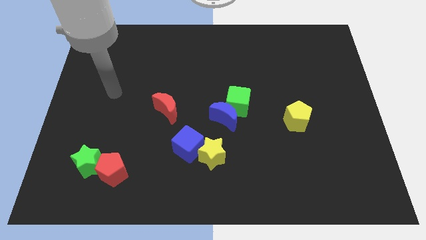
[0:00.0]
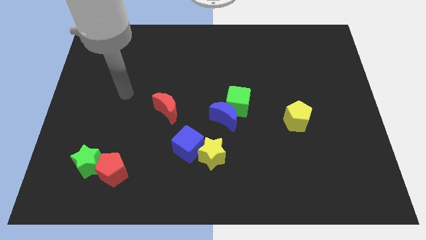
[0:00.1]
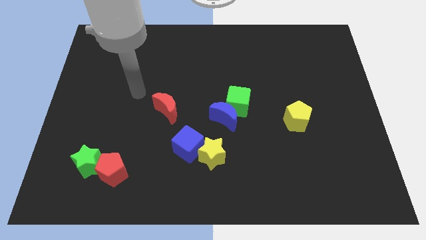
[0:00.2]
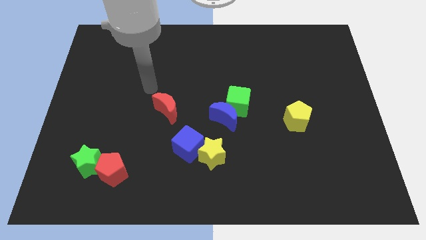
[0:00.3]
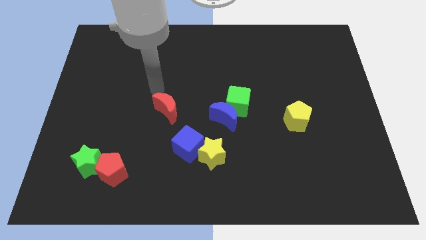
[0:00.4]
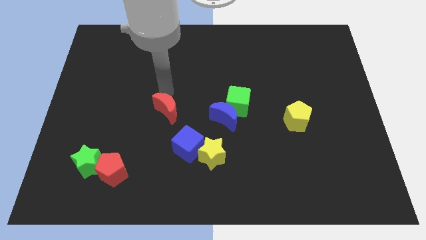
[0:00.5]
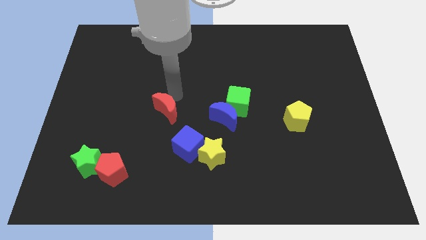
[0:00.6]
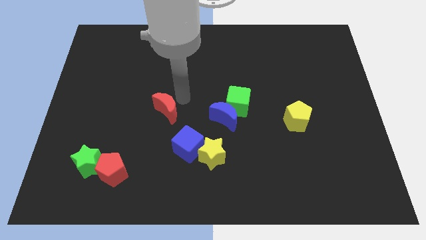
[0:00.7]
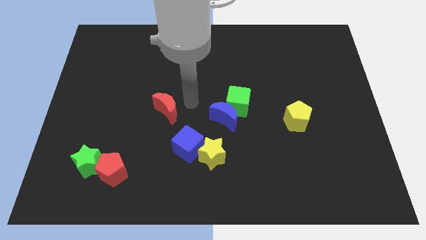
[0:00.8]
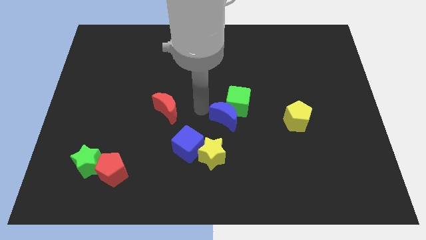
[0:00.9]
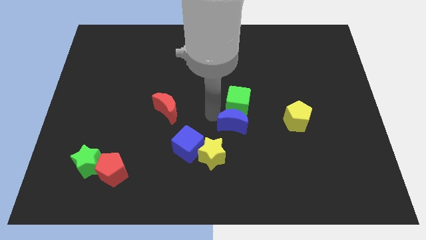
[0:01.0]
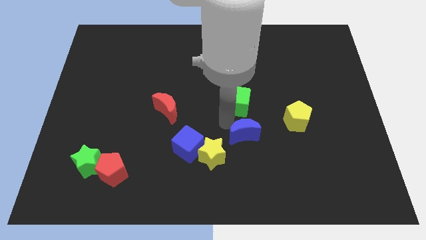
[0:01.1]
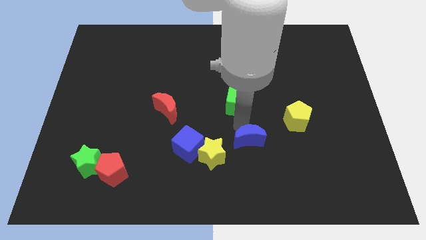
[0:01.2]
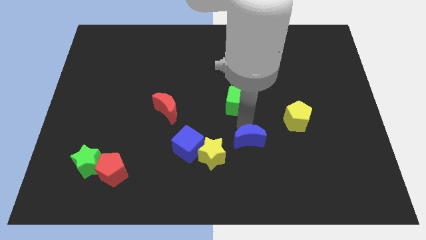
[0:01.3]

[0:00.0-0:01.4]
separate the green cube from the blue moon

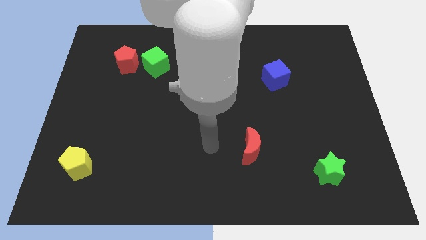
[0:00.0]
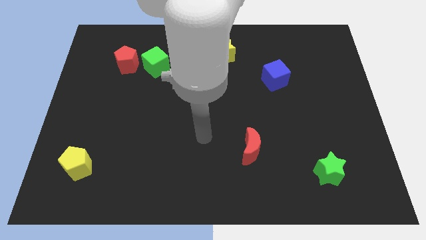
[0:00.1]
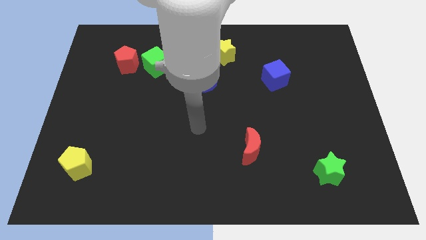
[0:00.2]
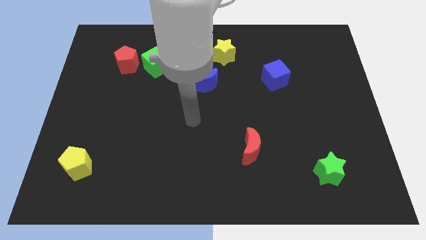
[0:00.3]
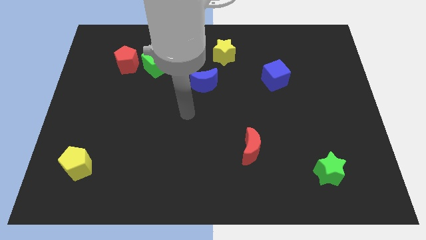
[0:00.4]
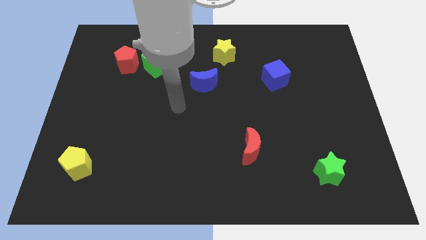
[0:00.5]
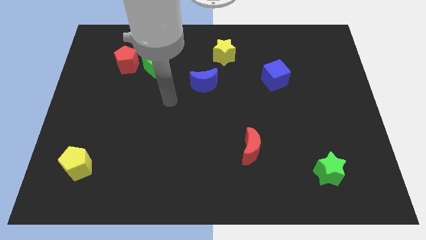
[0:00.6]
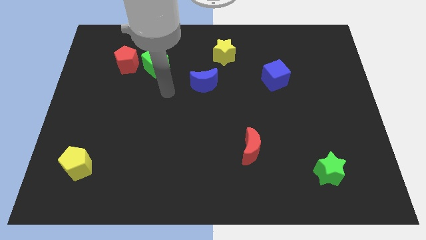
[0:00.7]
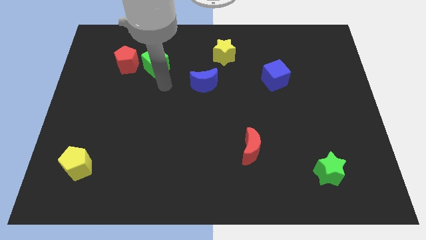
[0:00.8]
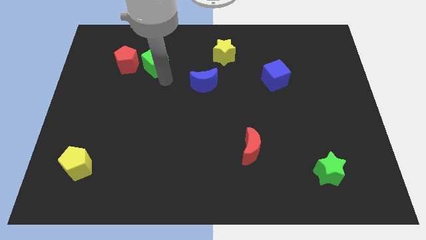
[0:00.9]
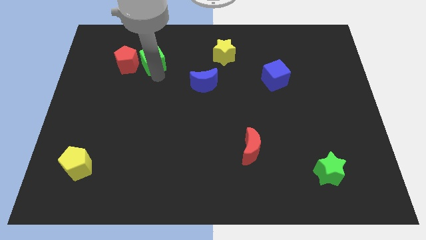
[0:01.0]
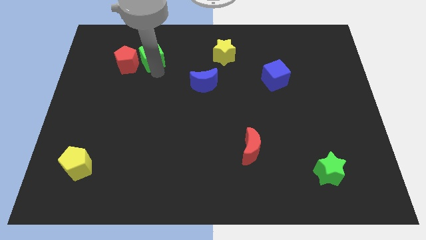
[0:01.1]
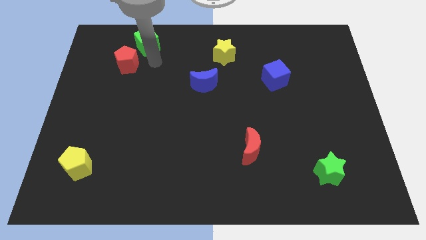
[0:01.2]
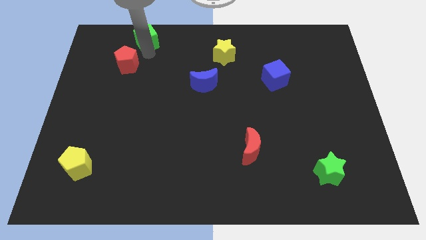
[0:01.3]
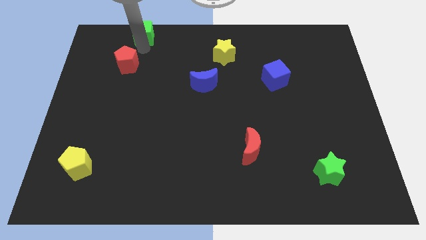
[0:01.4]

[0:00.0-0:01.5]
move the red pentagon away from the green cube

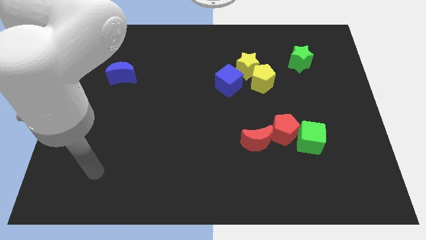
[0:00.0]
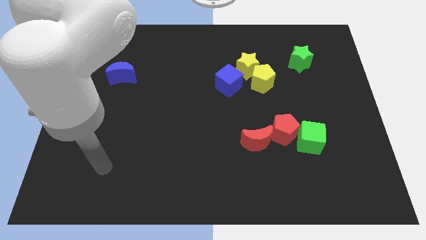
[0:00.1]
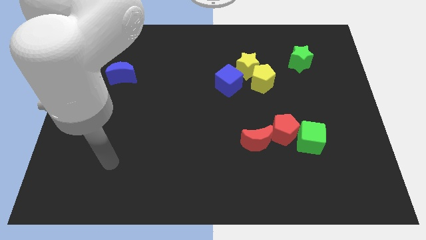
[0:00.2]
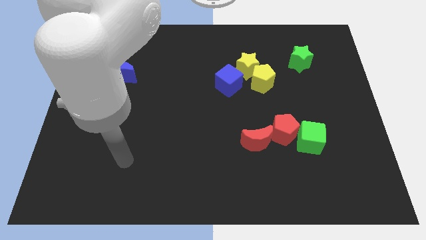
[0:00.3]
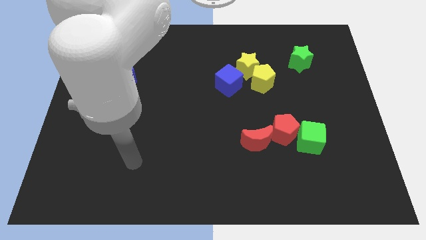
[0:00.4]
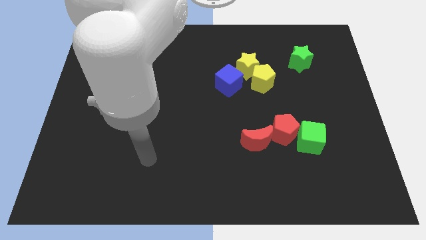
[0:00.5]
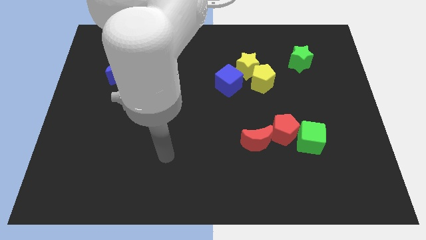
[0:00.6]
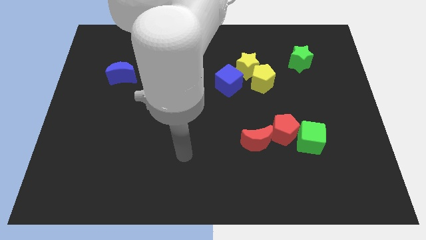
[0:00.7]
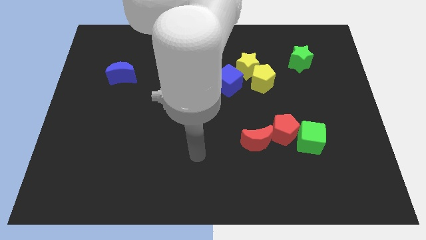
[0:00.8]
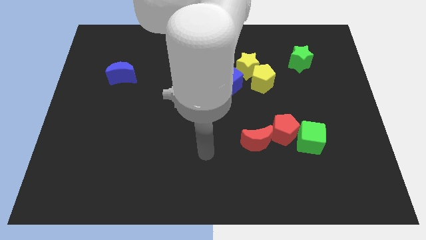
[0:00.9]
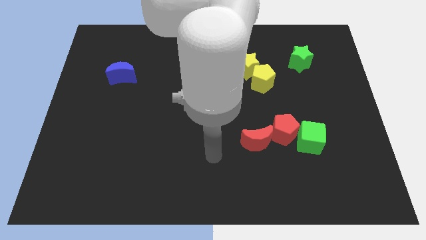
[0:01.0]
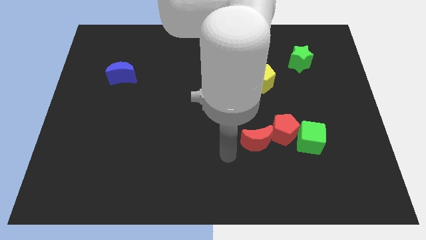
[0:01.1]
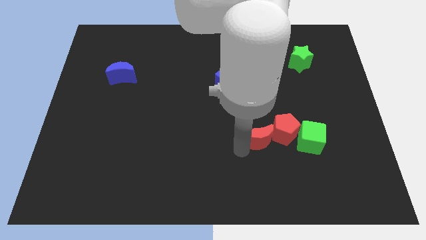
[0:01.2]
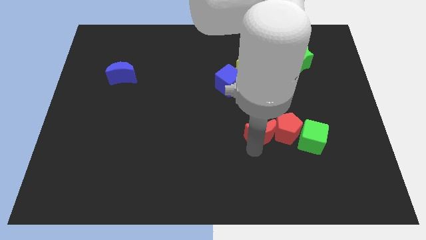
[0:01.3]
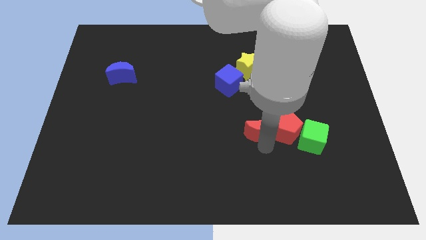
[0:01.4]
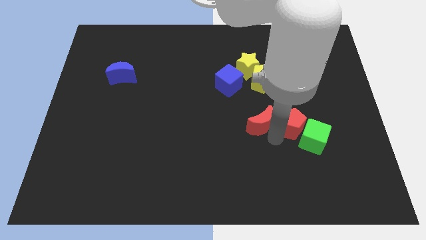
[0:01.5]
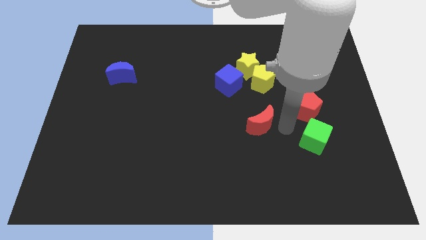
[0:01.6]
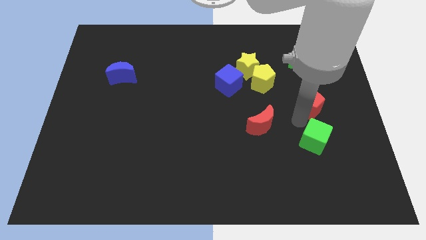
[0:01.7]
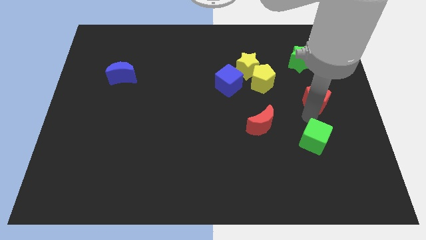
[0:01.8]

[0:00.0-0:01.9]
move the green cube away from the red pentagon

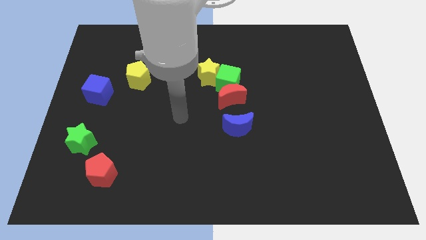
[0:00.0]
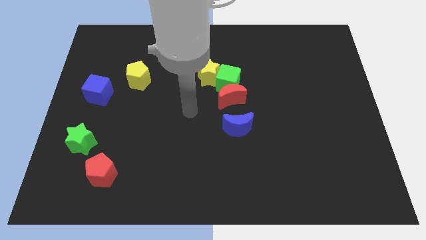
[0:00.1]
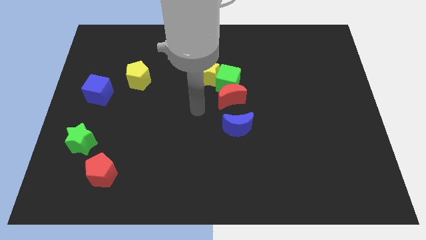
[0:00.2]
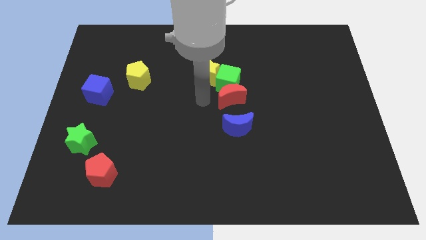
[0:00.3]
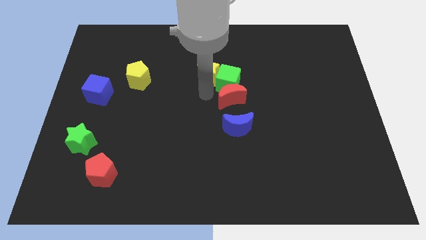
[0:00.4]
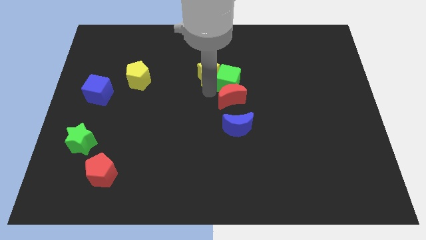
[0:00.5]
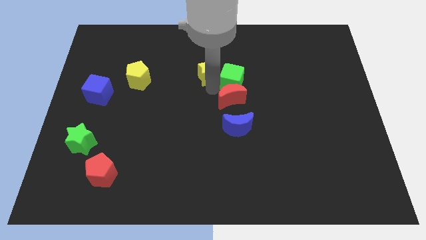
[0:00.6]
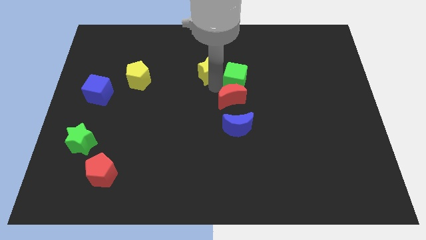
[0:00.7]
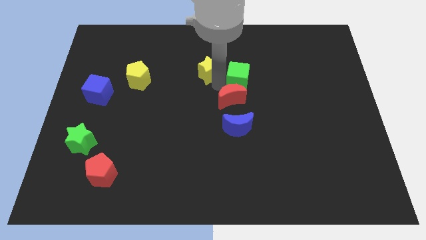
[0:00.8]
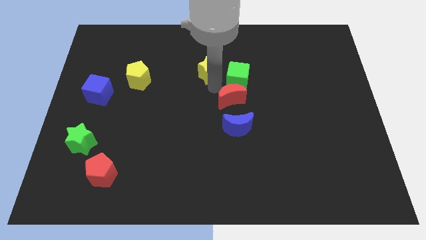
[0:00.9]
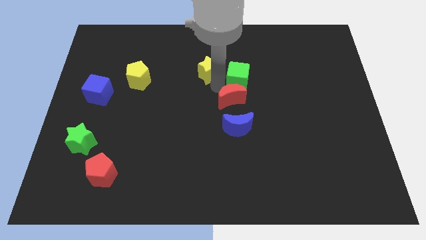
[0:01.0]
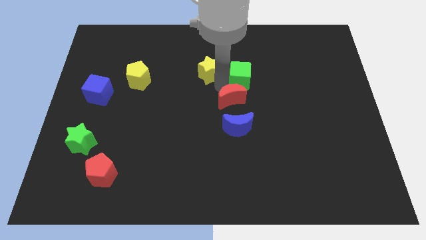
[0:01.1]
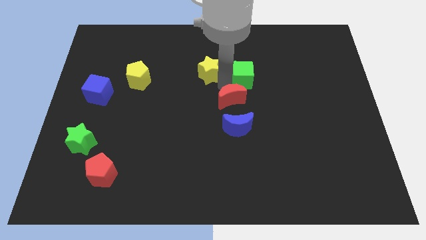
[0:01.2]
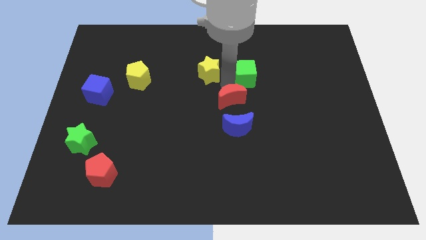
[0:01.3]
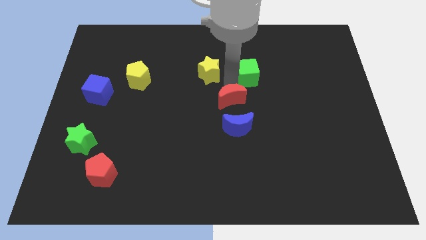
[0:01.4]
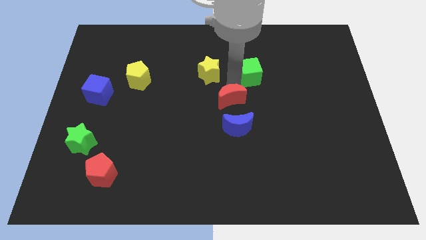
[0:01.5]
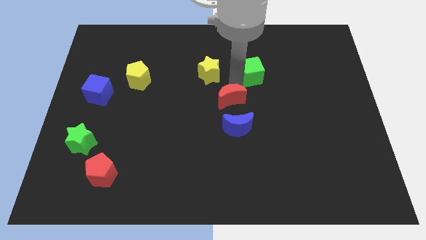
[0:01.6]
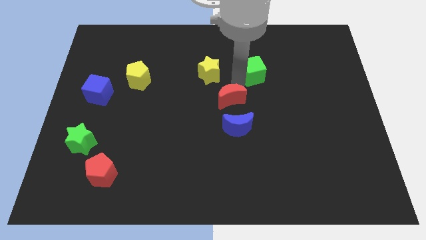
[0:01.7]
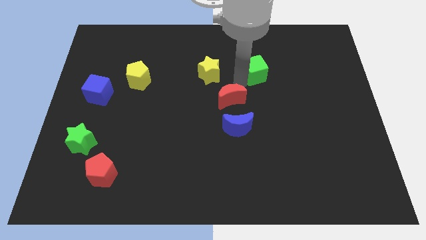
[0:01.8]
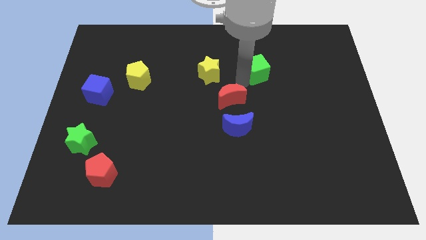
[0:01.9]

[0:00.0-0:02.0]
separate the green cube from the red moon and yellow star

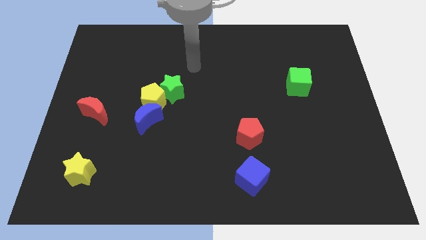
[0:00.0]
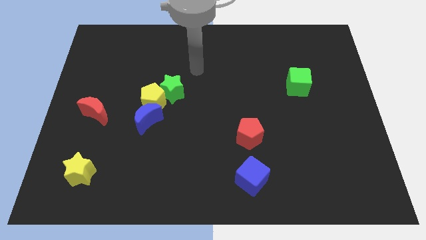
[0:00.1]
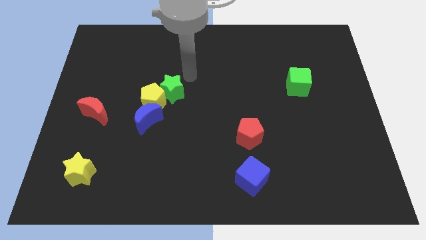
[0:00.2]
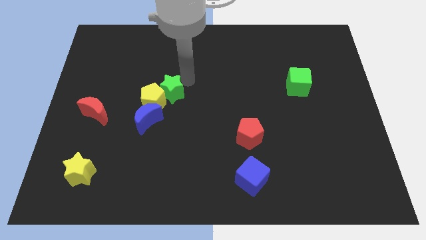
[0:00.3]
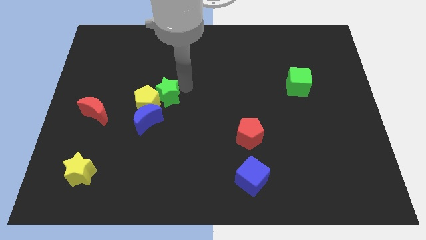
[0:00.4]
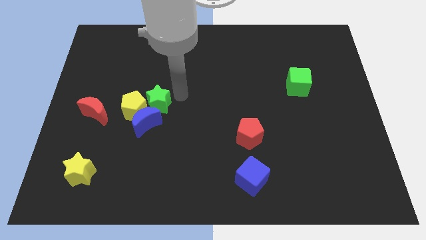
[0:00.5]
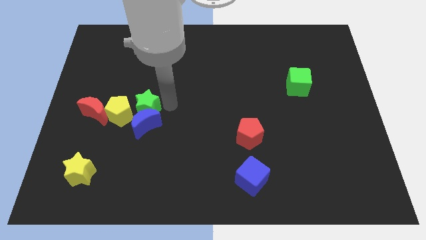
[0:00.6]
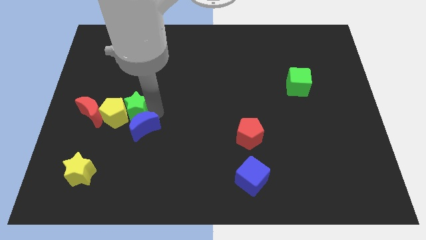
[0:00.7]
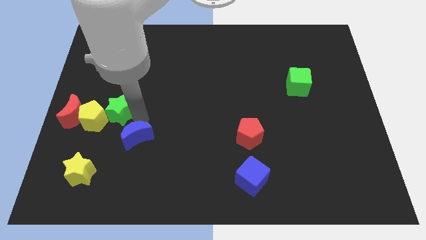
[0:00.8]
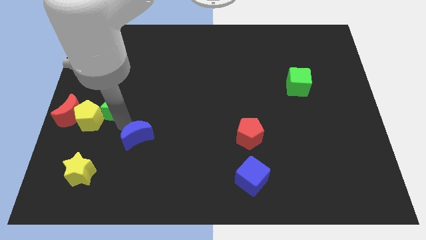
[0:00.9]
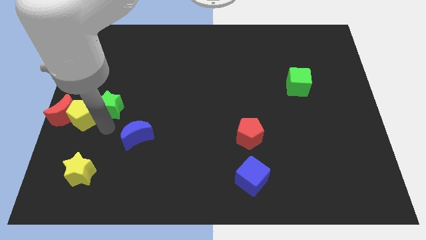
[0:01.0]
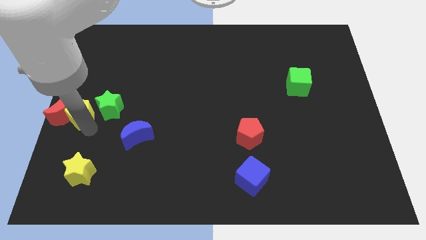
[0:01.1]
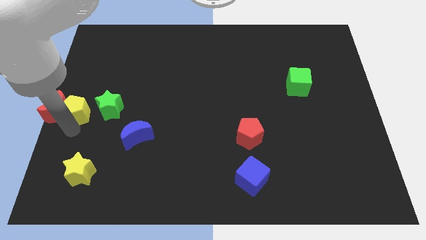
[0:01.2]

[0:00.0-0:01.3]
pull the yellow pentagon apart from the green star and blue moon

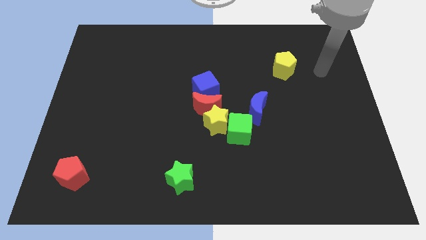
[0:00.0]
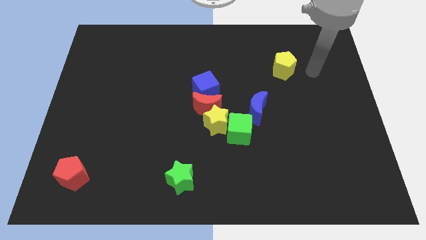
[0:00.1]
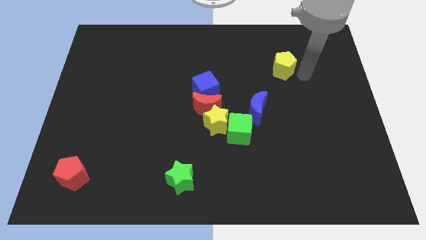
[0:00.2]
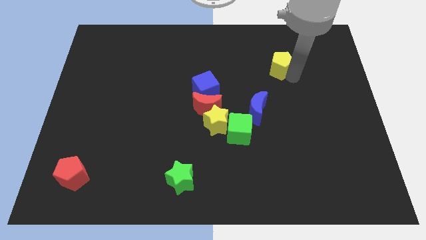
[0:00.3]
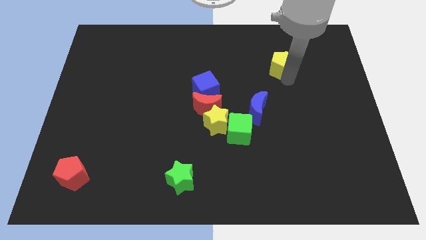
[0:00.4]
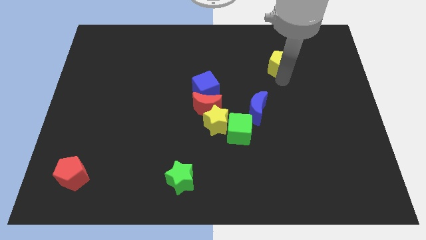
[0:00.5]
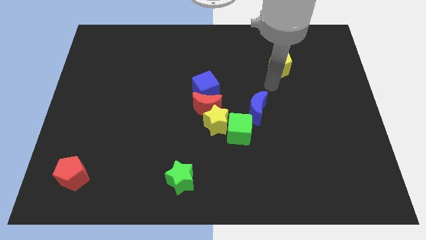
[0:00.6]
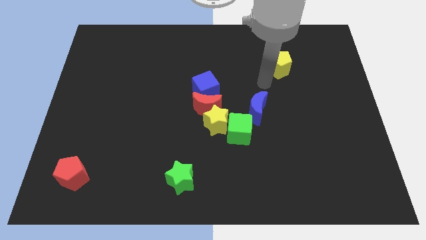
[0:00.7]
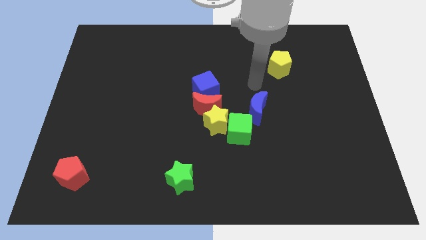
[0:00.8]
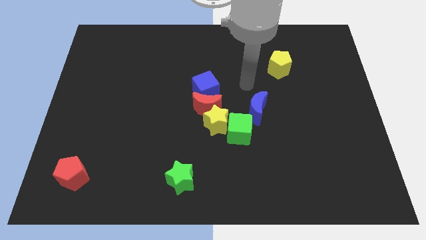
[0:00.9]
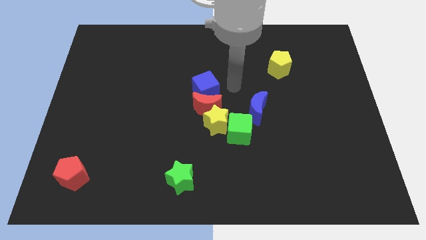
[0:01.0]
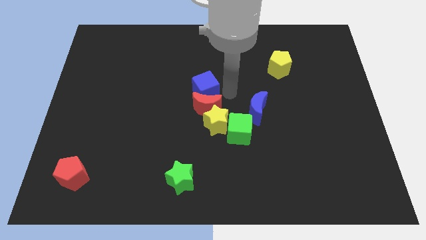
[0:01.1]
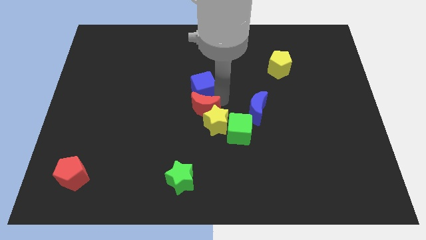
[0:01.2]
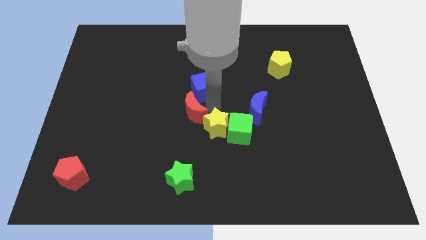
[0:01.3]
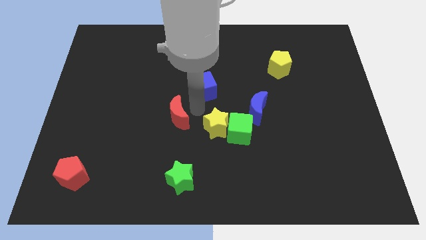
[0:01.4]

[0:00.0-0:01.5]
pull the blue cube apart from the red moon
